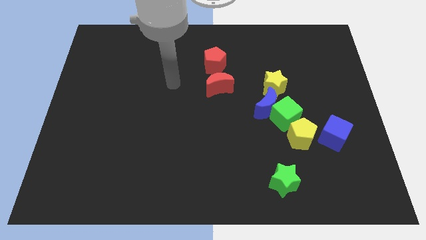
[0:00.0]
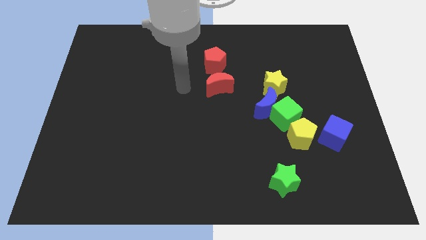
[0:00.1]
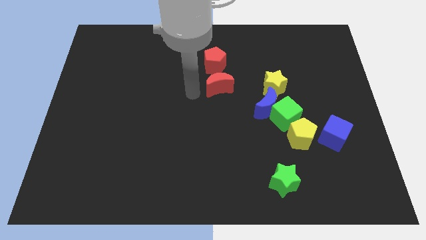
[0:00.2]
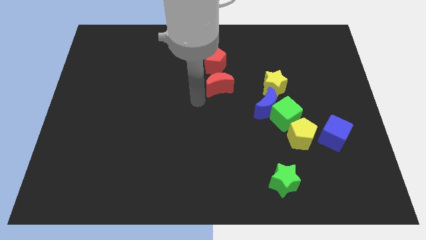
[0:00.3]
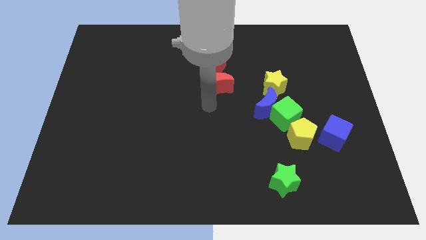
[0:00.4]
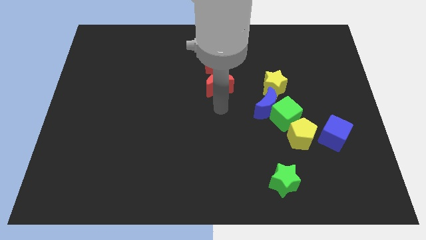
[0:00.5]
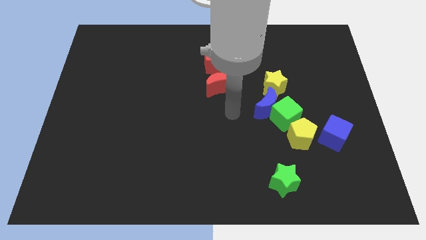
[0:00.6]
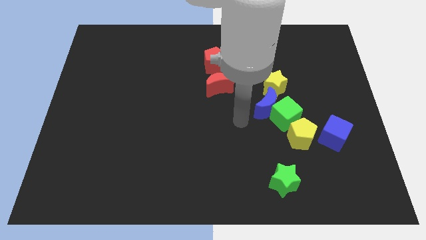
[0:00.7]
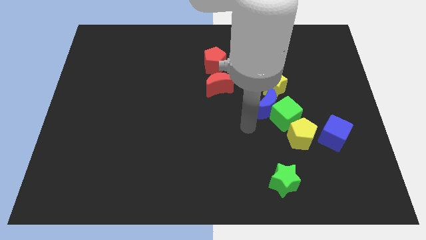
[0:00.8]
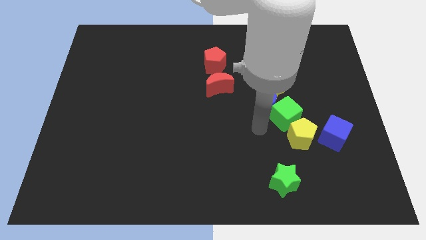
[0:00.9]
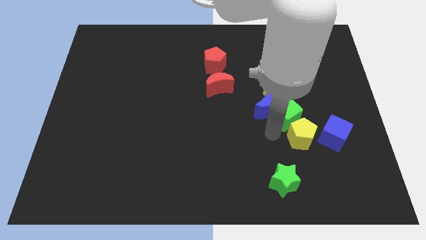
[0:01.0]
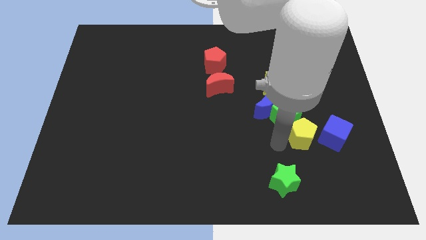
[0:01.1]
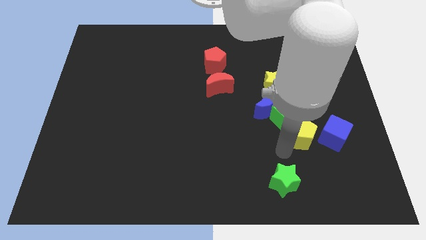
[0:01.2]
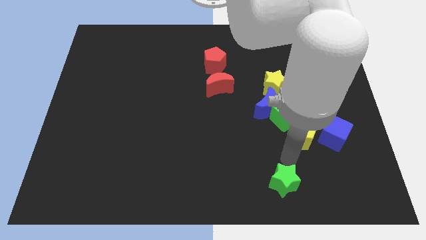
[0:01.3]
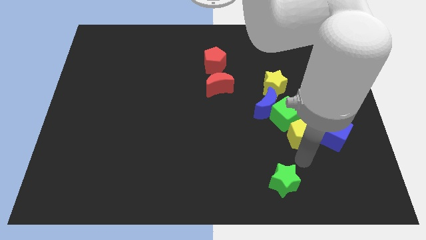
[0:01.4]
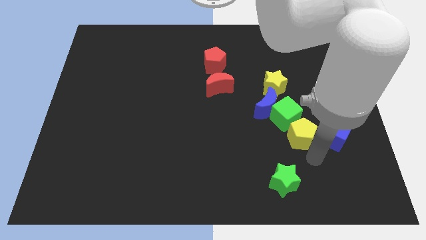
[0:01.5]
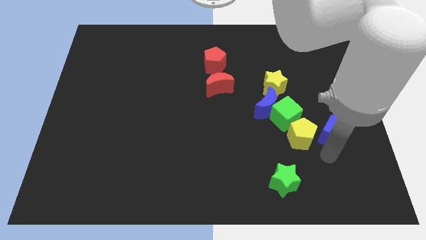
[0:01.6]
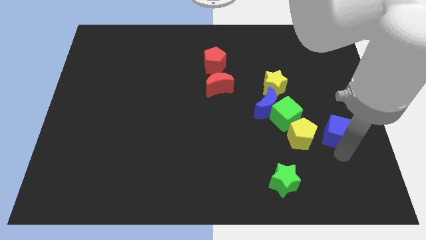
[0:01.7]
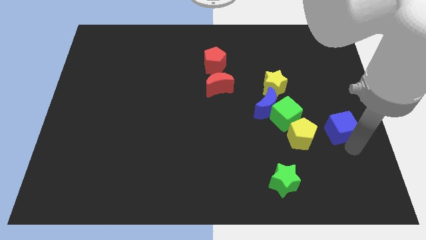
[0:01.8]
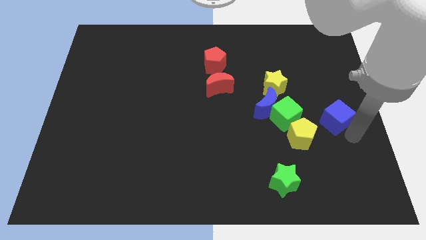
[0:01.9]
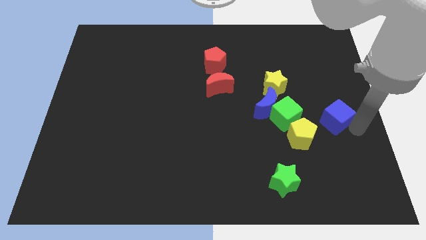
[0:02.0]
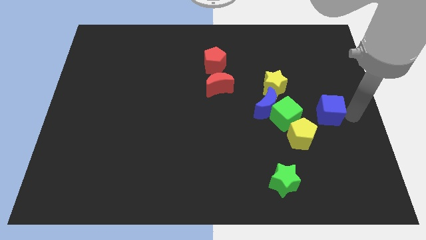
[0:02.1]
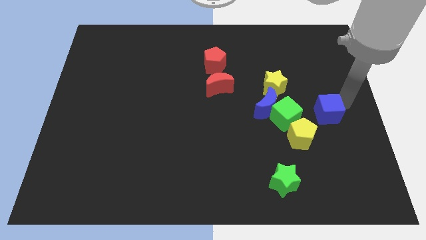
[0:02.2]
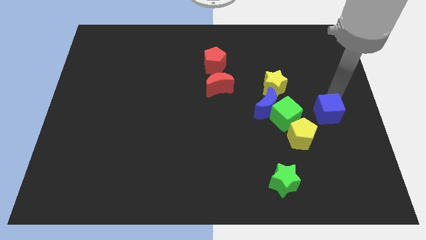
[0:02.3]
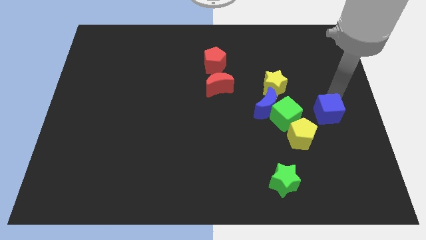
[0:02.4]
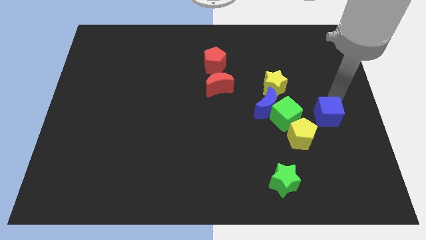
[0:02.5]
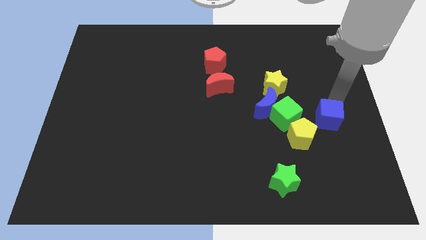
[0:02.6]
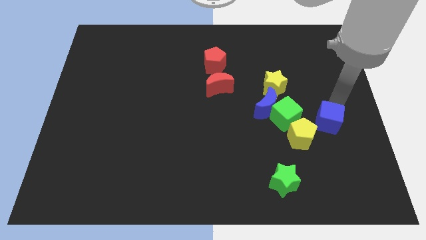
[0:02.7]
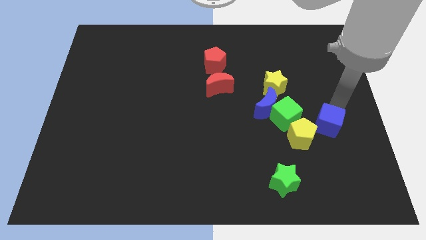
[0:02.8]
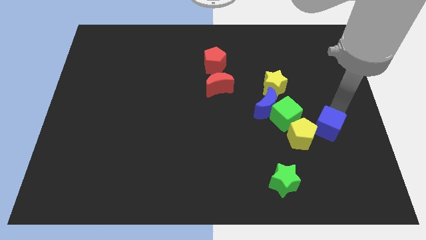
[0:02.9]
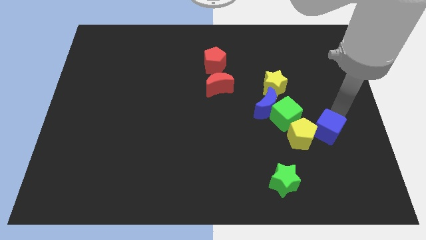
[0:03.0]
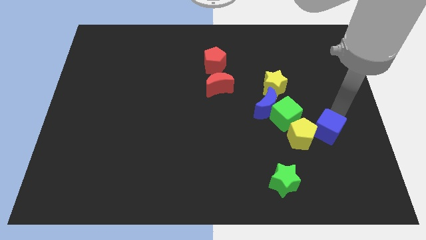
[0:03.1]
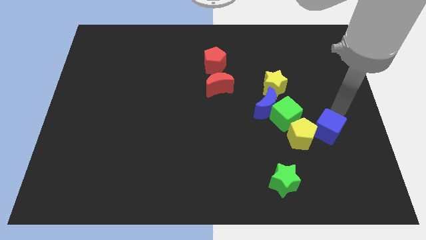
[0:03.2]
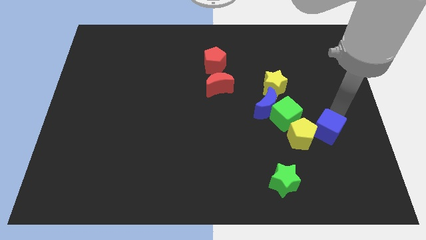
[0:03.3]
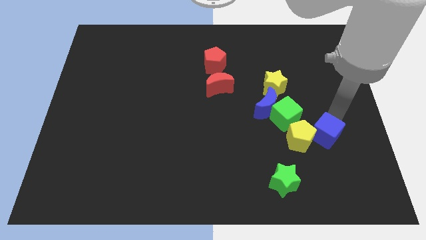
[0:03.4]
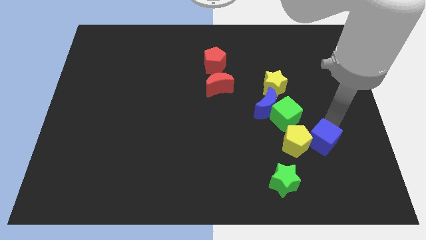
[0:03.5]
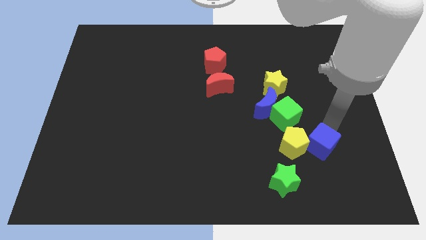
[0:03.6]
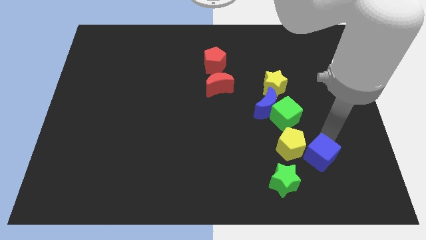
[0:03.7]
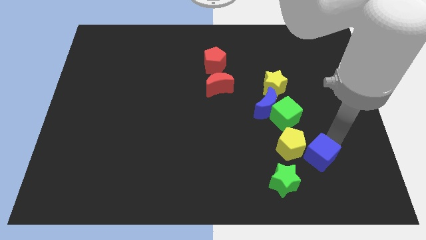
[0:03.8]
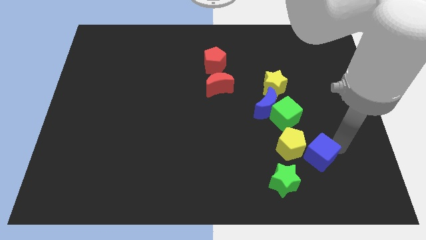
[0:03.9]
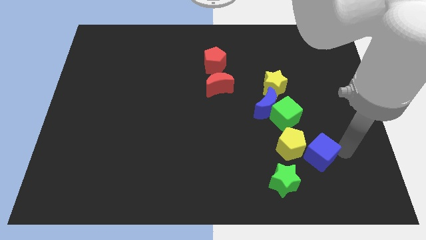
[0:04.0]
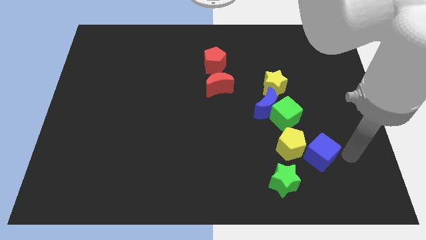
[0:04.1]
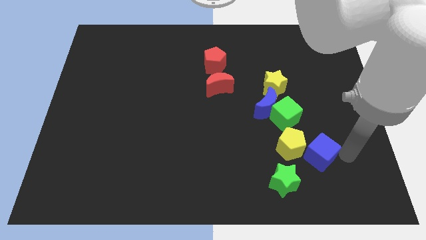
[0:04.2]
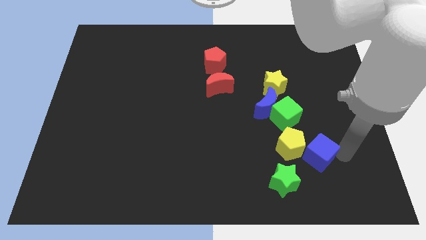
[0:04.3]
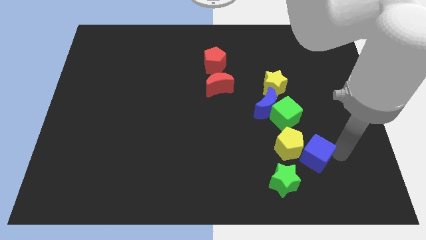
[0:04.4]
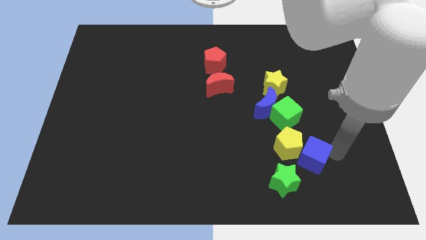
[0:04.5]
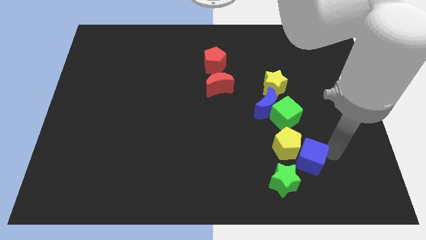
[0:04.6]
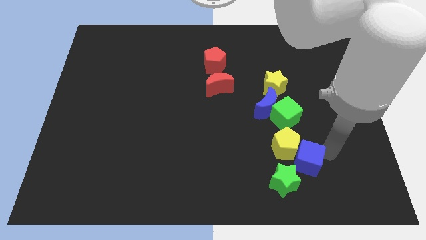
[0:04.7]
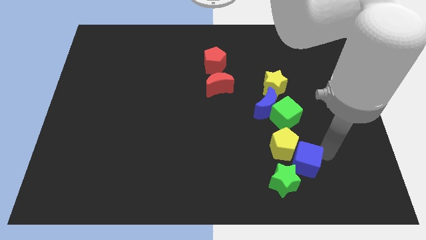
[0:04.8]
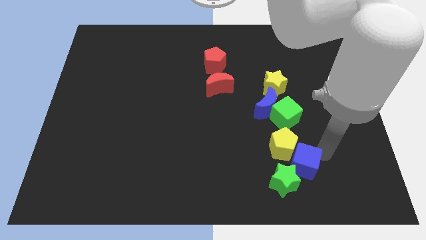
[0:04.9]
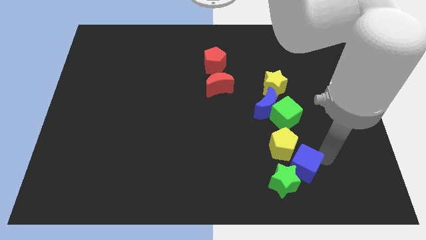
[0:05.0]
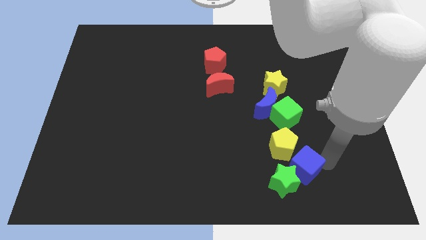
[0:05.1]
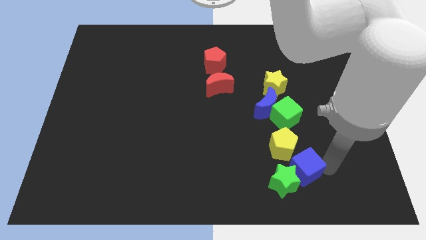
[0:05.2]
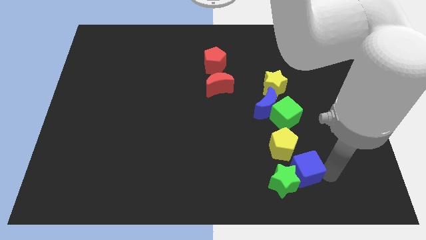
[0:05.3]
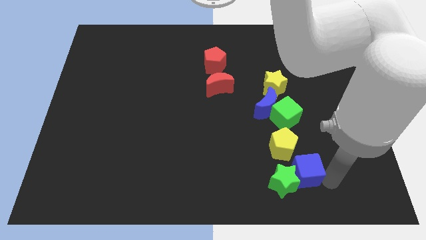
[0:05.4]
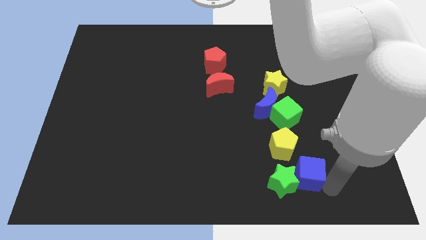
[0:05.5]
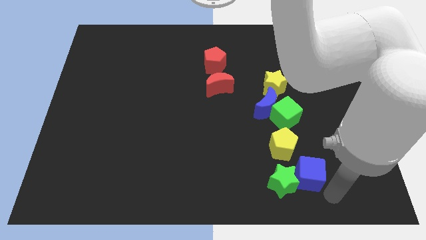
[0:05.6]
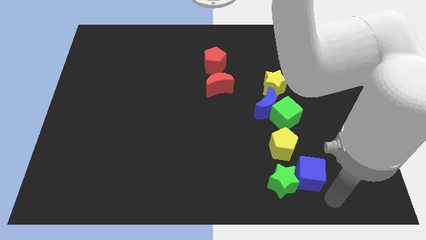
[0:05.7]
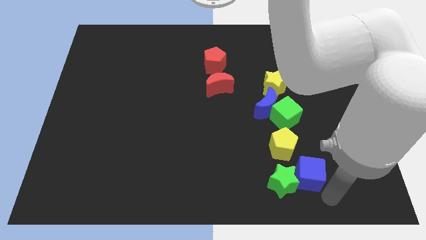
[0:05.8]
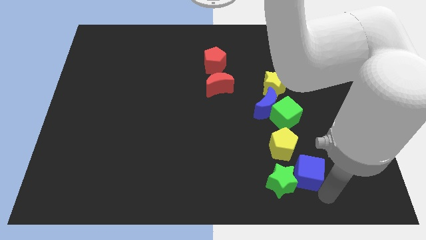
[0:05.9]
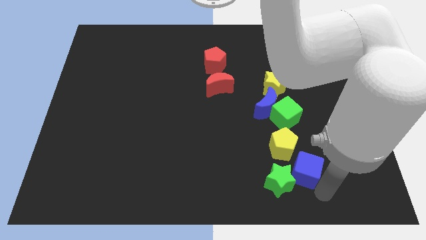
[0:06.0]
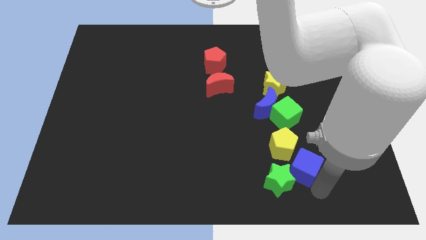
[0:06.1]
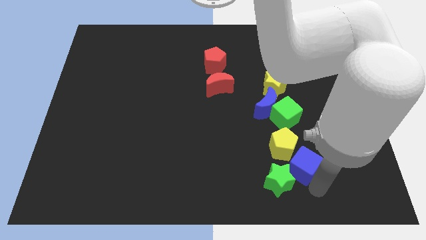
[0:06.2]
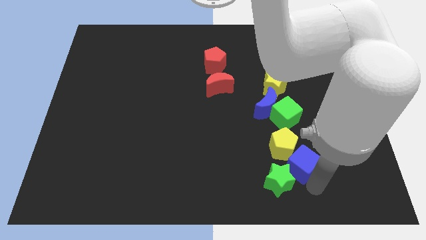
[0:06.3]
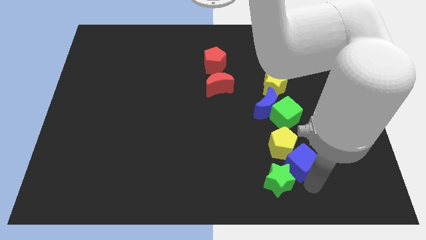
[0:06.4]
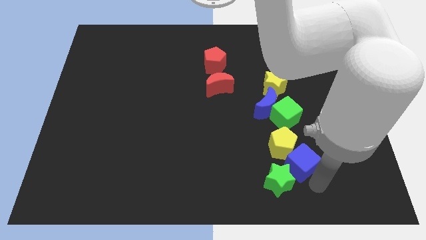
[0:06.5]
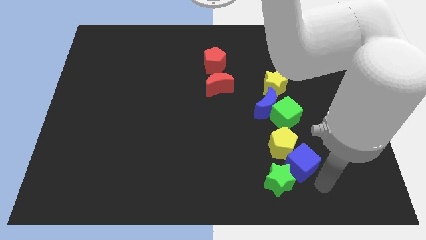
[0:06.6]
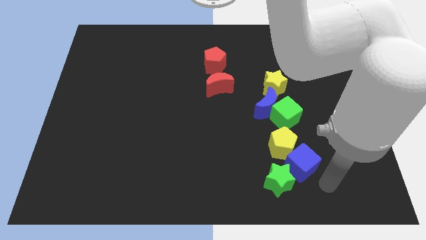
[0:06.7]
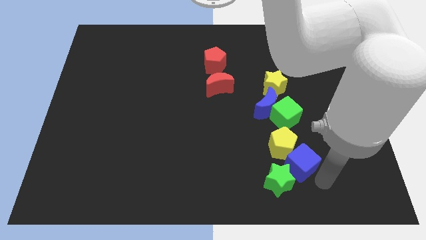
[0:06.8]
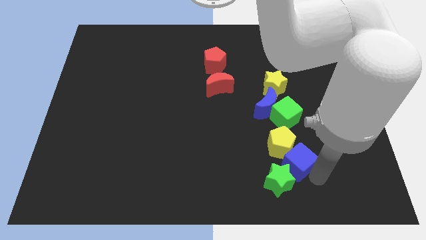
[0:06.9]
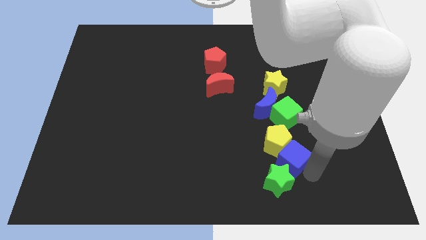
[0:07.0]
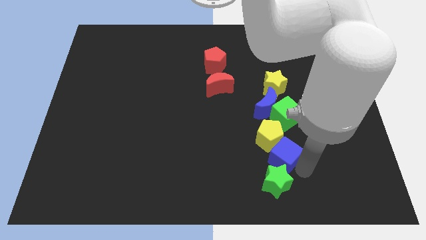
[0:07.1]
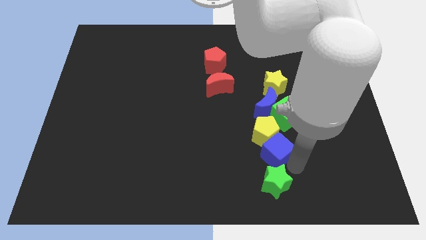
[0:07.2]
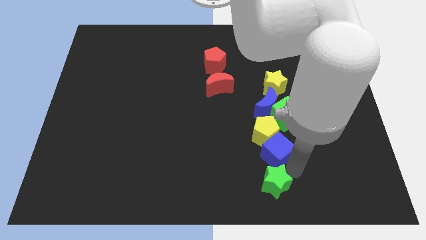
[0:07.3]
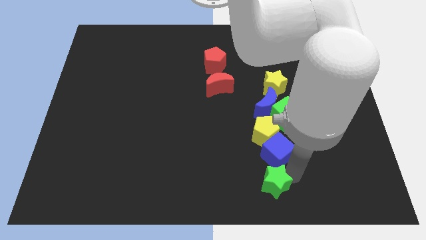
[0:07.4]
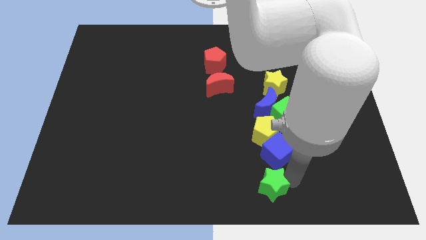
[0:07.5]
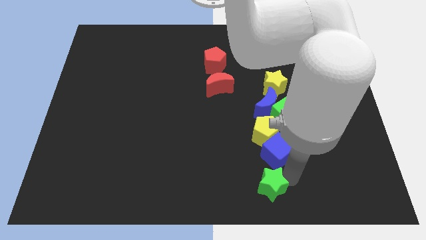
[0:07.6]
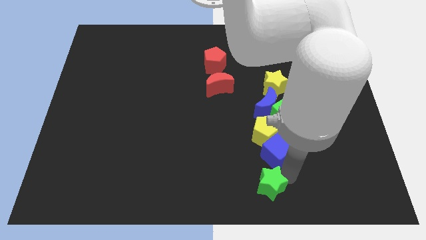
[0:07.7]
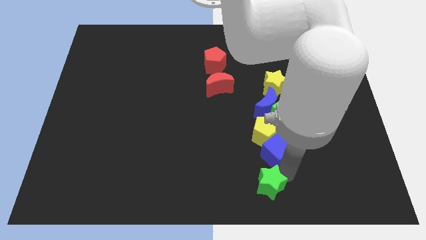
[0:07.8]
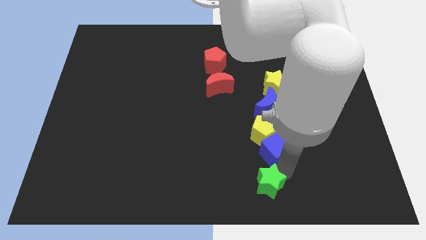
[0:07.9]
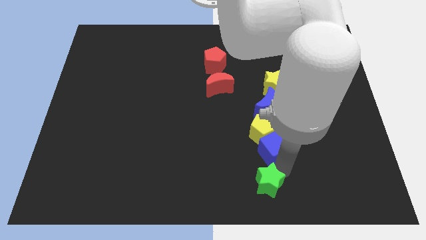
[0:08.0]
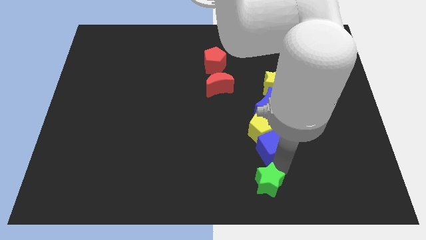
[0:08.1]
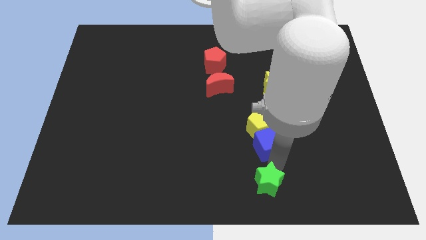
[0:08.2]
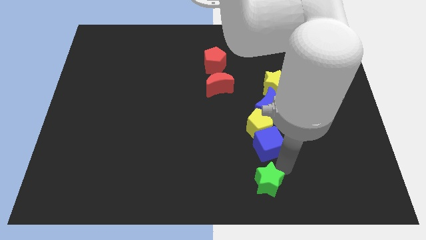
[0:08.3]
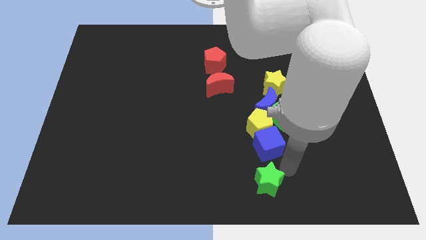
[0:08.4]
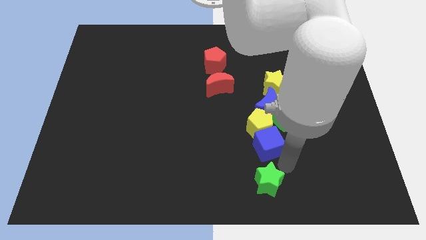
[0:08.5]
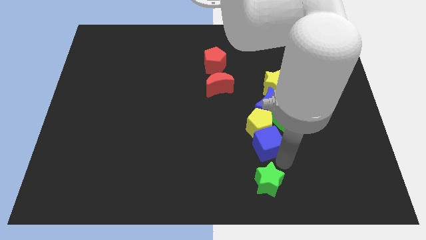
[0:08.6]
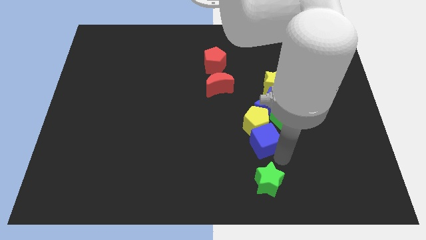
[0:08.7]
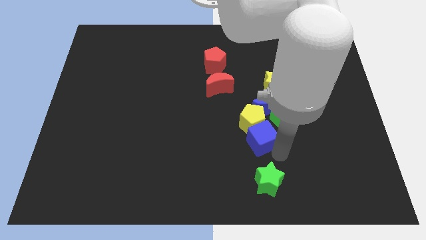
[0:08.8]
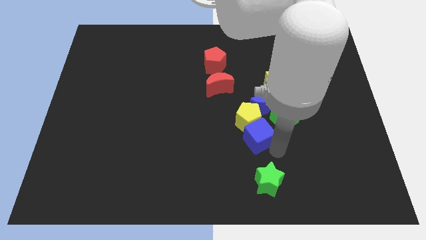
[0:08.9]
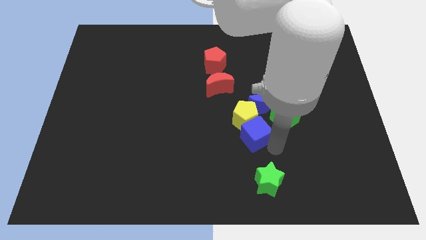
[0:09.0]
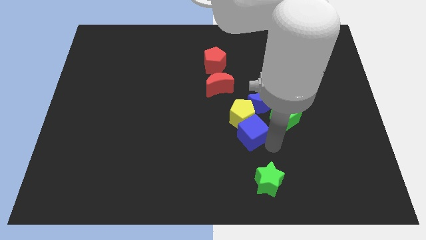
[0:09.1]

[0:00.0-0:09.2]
slide the blue cube just left of the green cube
